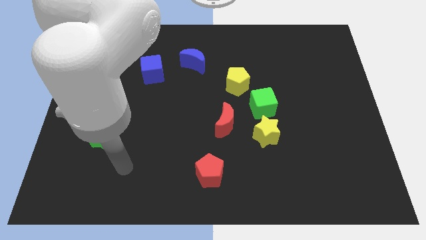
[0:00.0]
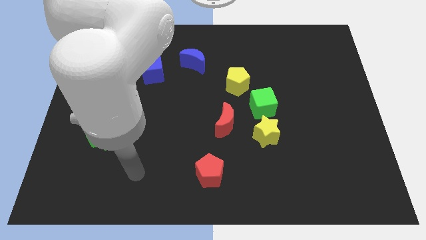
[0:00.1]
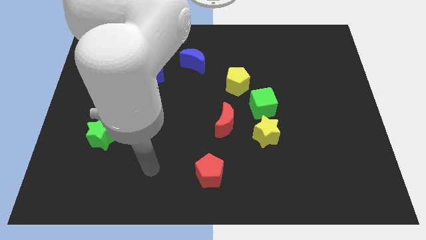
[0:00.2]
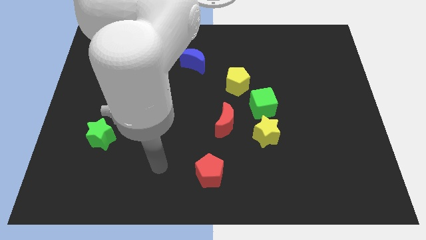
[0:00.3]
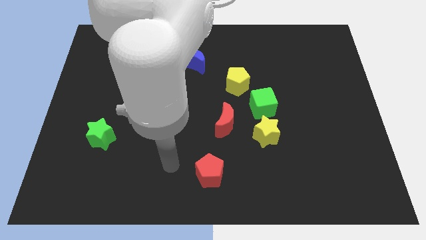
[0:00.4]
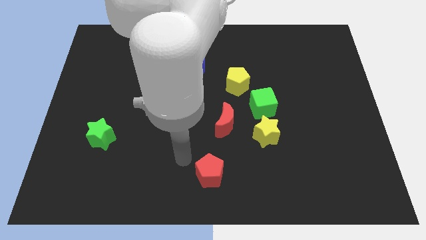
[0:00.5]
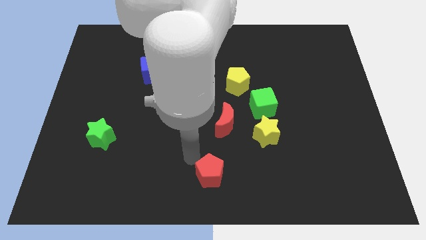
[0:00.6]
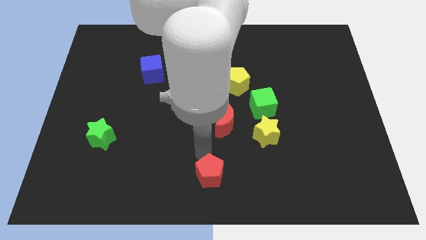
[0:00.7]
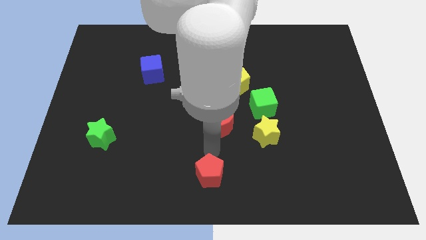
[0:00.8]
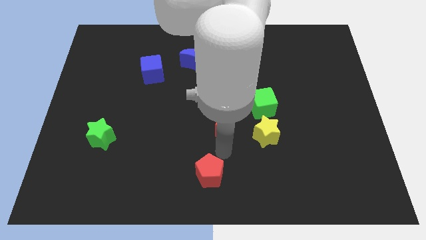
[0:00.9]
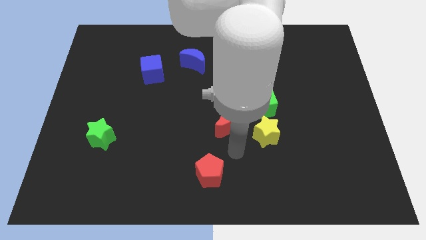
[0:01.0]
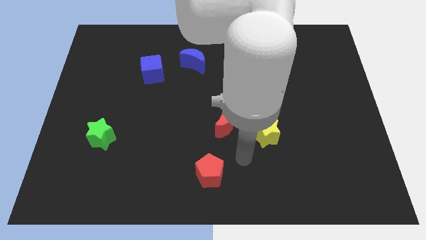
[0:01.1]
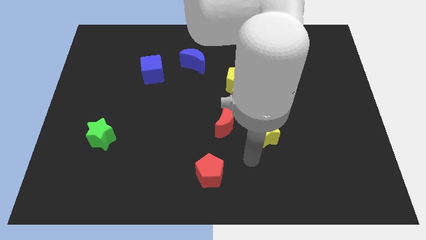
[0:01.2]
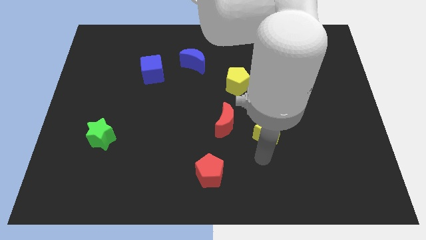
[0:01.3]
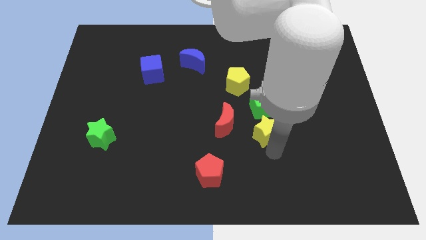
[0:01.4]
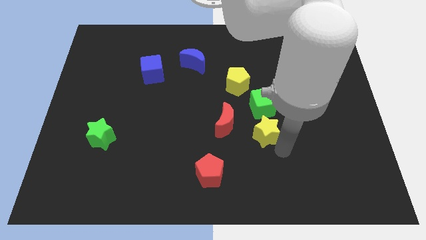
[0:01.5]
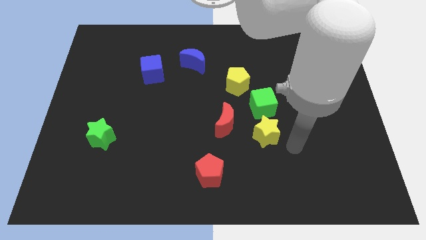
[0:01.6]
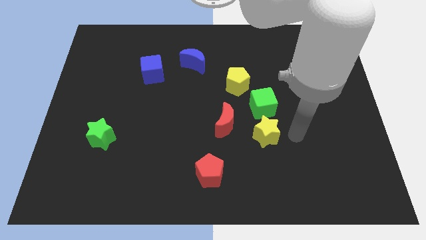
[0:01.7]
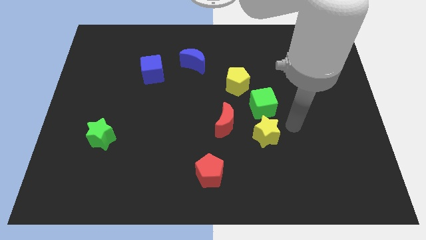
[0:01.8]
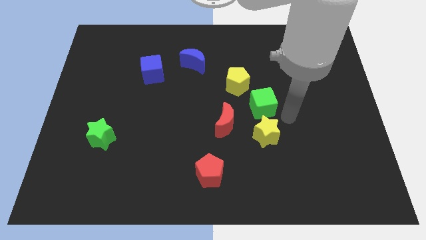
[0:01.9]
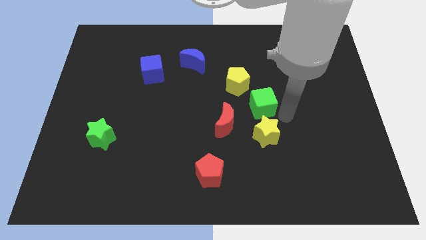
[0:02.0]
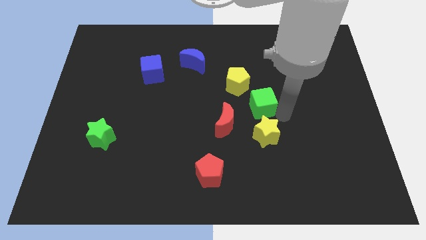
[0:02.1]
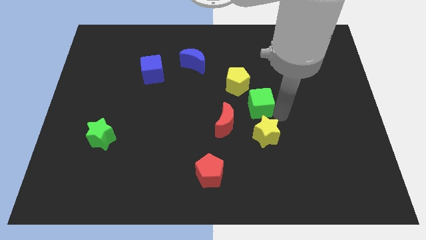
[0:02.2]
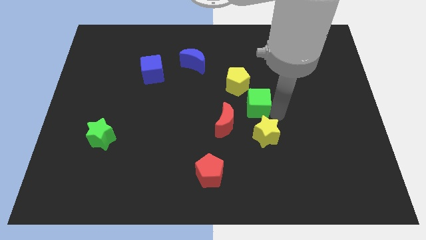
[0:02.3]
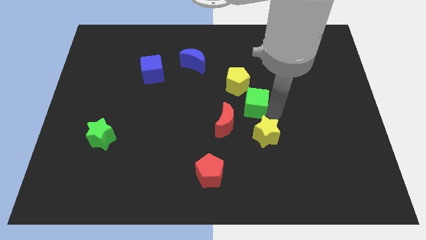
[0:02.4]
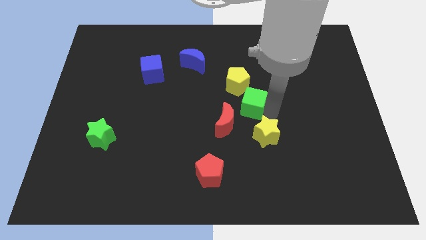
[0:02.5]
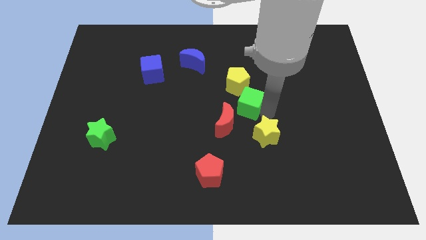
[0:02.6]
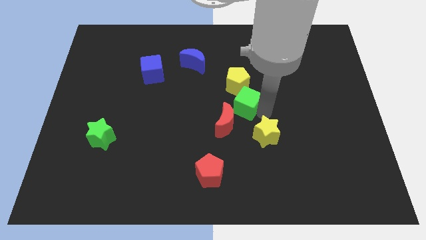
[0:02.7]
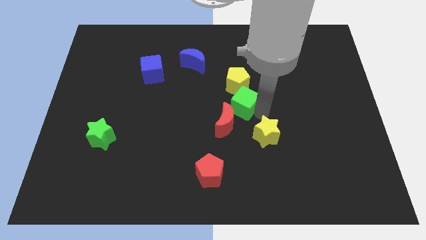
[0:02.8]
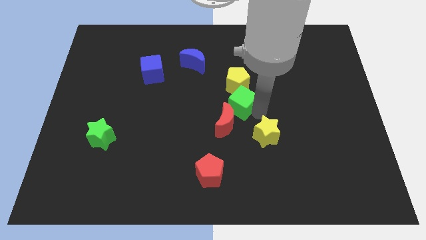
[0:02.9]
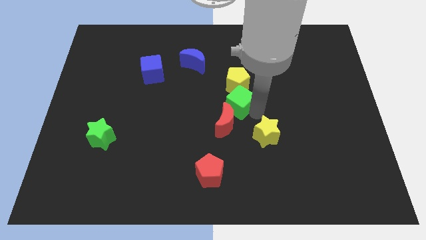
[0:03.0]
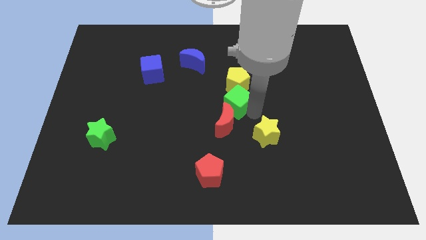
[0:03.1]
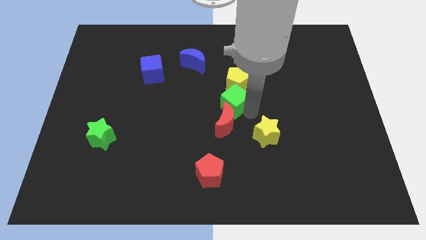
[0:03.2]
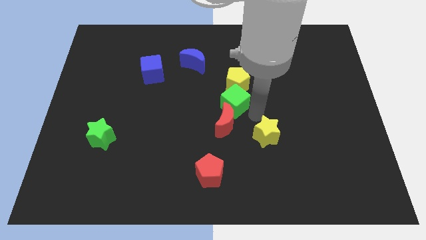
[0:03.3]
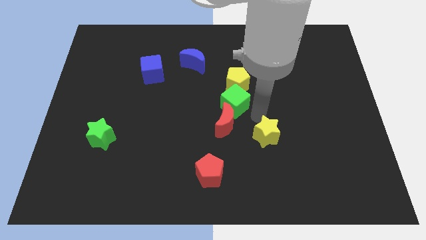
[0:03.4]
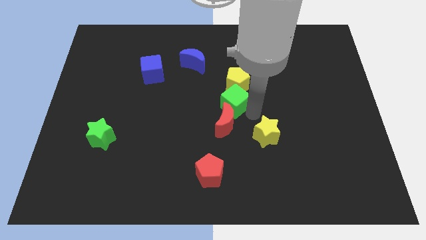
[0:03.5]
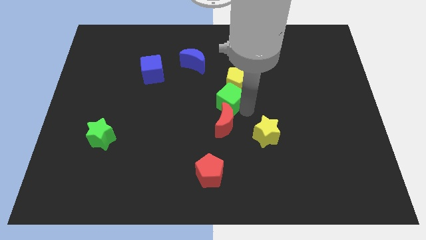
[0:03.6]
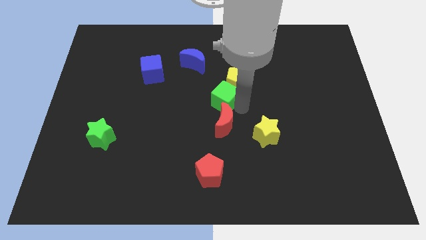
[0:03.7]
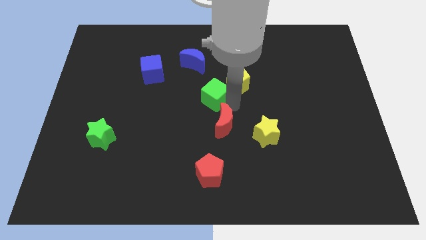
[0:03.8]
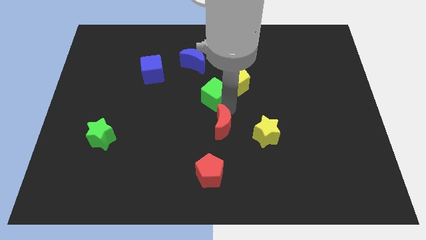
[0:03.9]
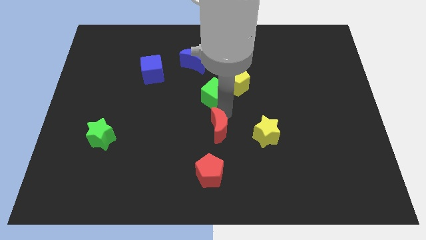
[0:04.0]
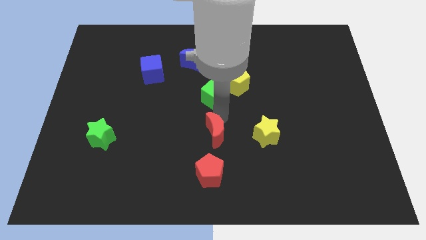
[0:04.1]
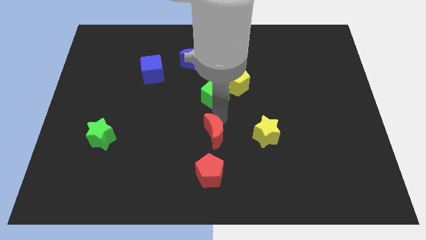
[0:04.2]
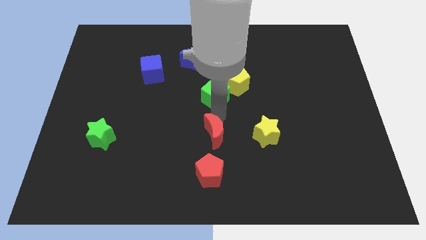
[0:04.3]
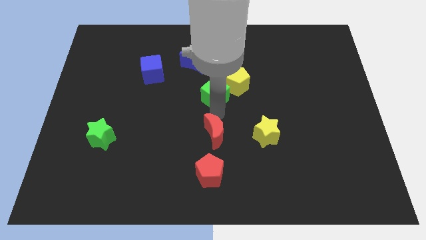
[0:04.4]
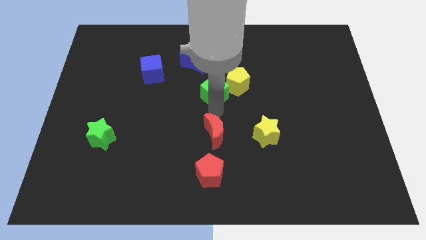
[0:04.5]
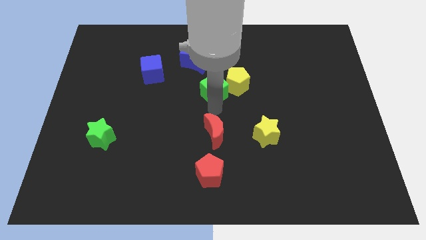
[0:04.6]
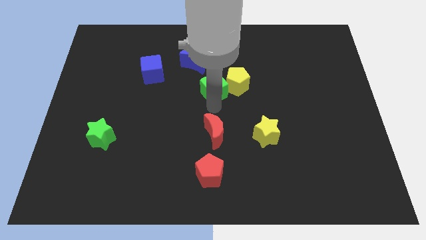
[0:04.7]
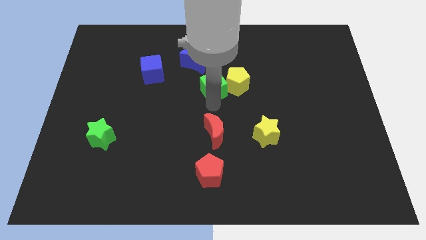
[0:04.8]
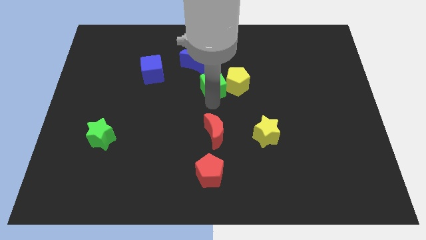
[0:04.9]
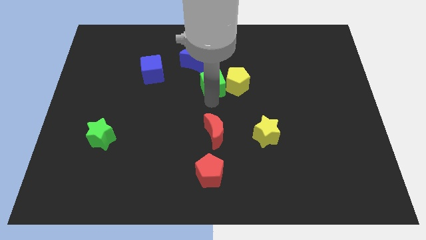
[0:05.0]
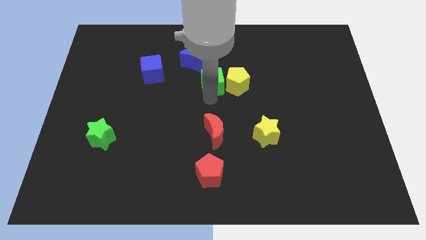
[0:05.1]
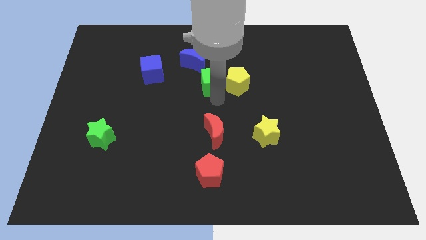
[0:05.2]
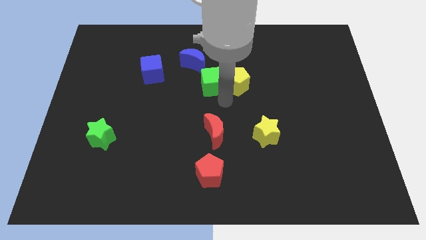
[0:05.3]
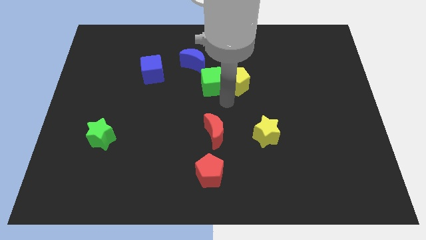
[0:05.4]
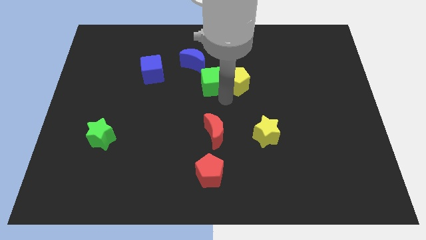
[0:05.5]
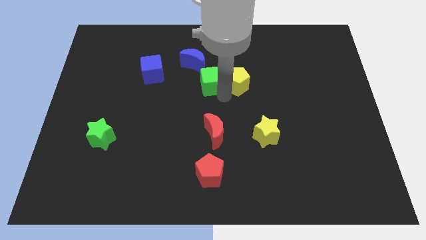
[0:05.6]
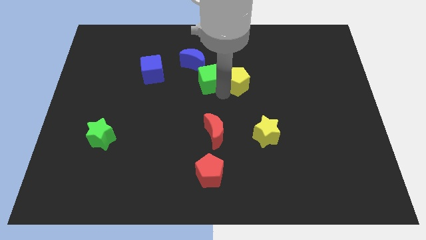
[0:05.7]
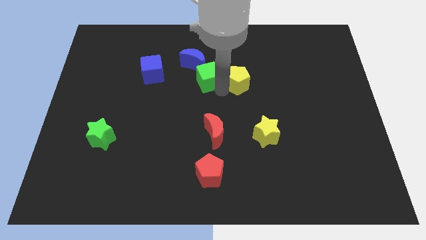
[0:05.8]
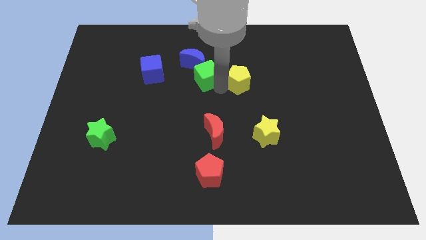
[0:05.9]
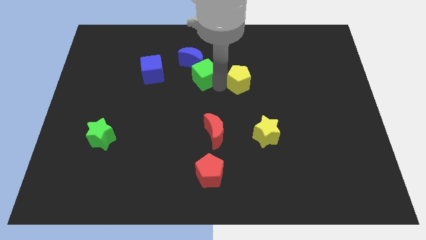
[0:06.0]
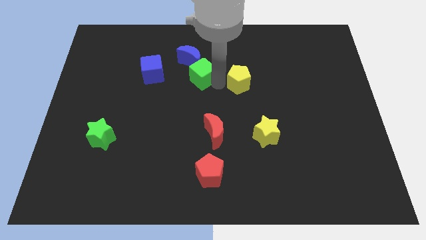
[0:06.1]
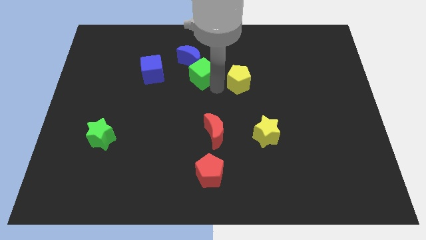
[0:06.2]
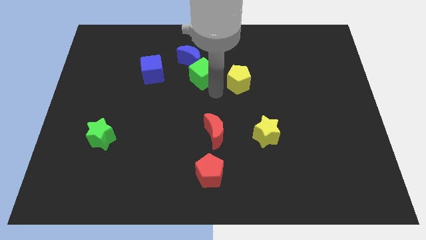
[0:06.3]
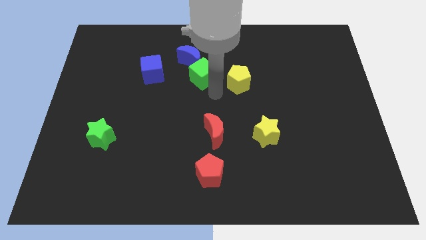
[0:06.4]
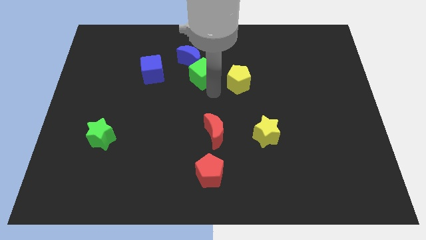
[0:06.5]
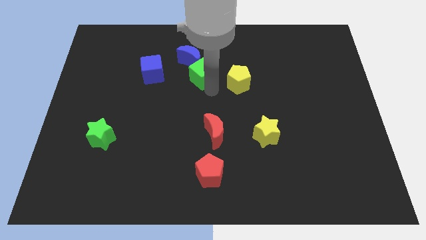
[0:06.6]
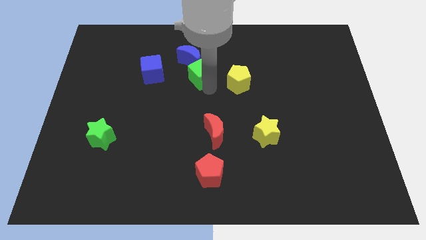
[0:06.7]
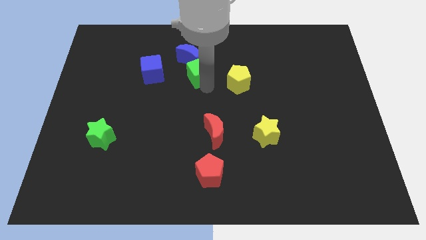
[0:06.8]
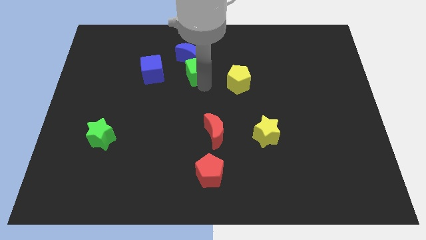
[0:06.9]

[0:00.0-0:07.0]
put the green cube next to the blue moon

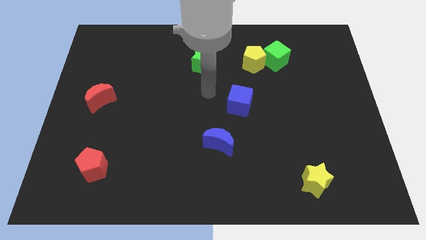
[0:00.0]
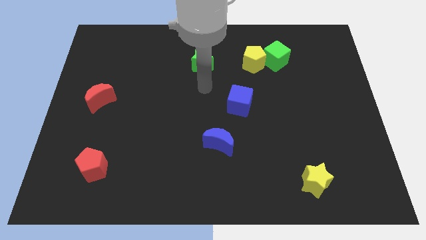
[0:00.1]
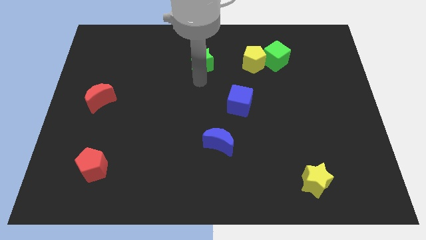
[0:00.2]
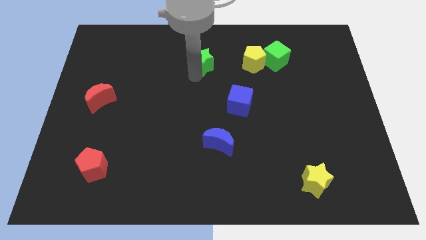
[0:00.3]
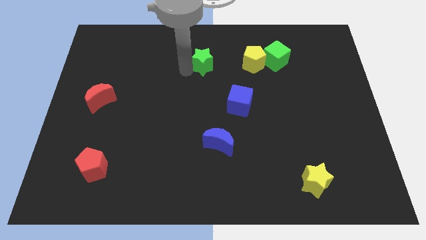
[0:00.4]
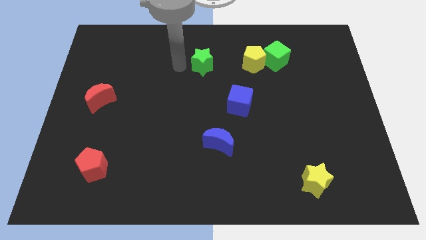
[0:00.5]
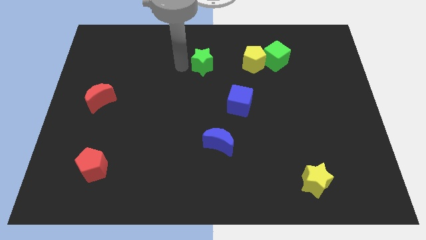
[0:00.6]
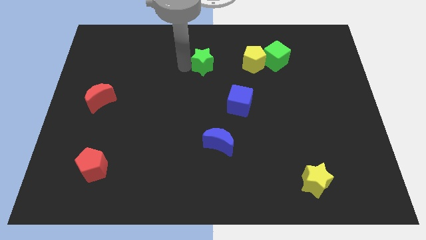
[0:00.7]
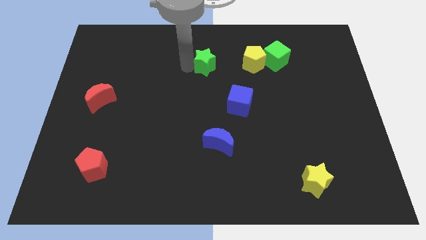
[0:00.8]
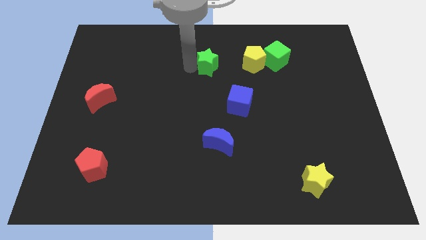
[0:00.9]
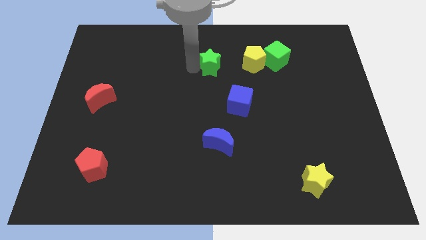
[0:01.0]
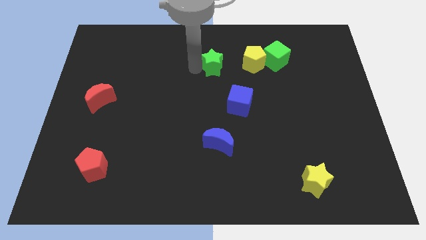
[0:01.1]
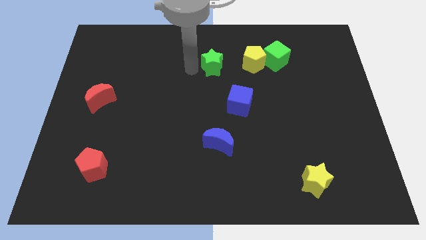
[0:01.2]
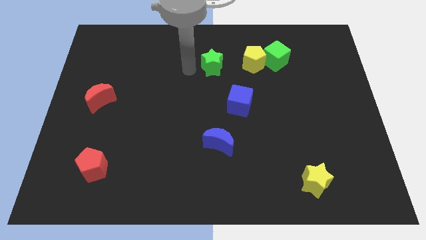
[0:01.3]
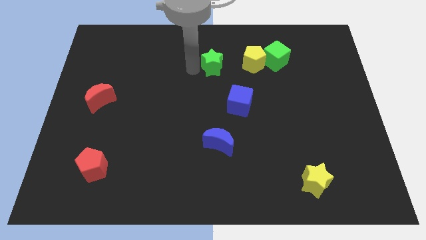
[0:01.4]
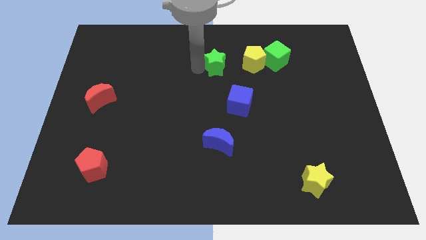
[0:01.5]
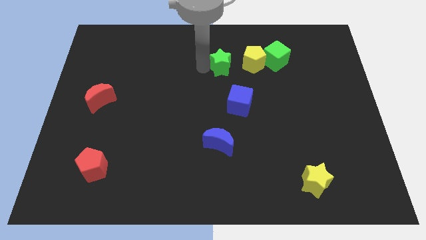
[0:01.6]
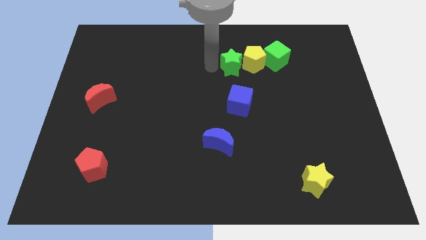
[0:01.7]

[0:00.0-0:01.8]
move the green star towards the yellow pentagon
